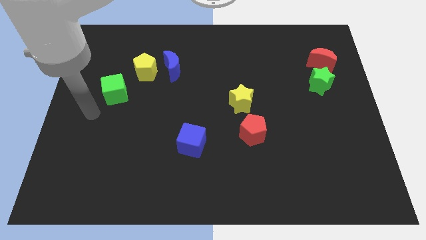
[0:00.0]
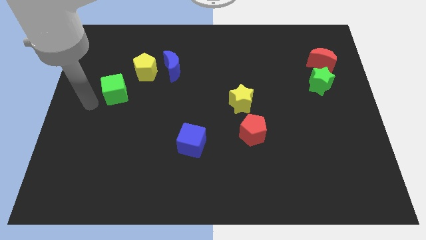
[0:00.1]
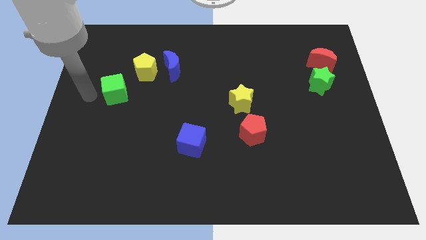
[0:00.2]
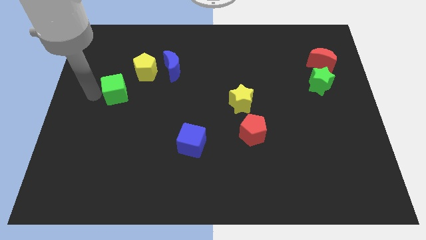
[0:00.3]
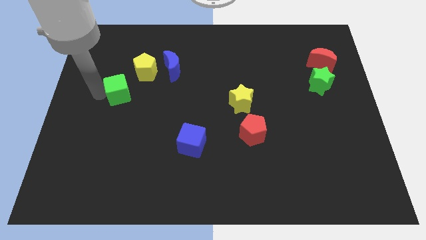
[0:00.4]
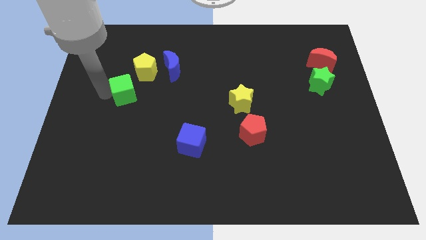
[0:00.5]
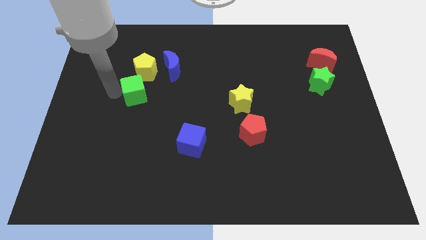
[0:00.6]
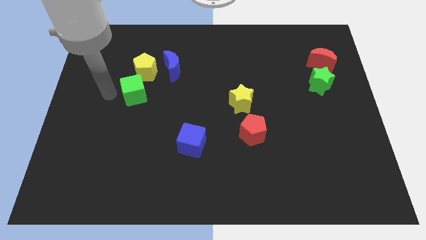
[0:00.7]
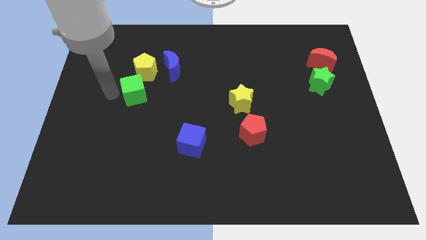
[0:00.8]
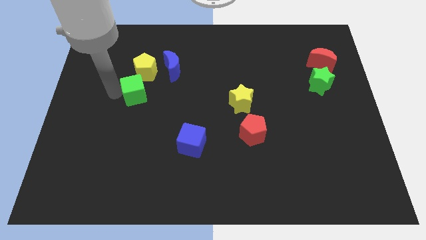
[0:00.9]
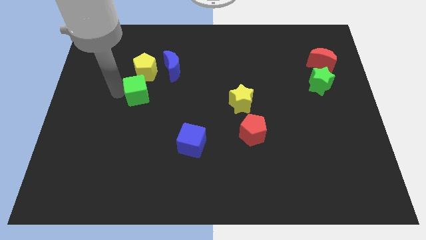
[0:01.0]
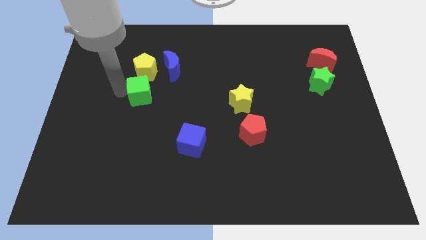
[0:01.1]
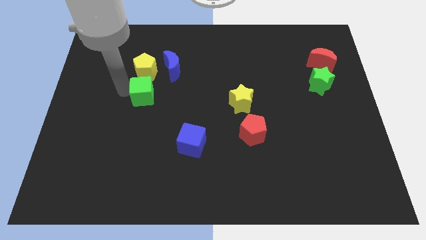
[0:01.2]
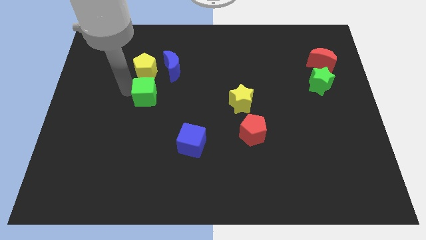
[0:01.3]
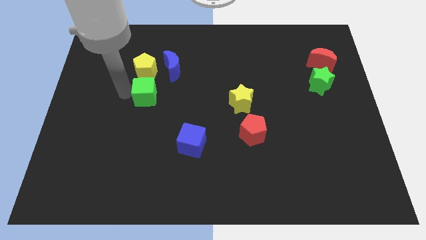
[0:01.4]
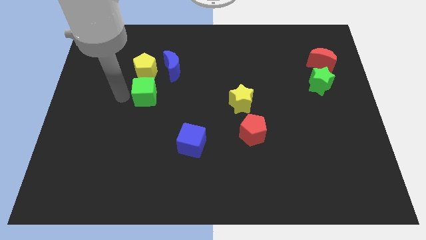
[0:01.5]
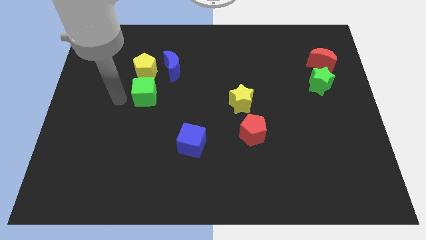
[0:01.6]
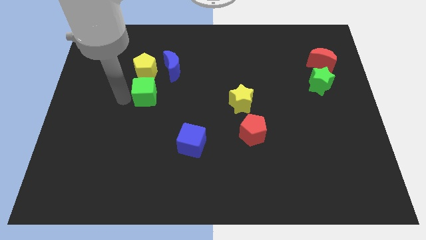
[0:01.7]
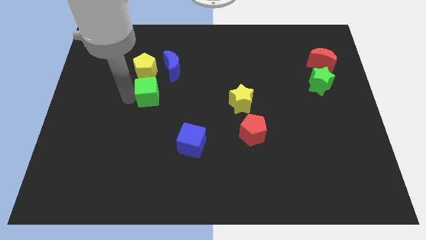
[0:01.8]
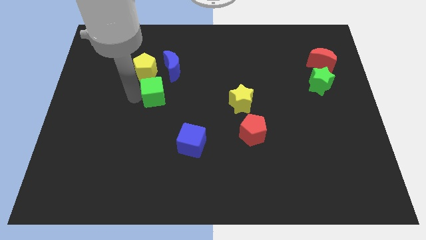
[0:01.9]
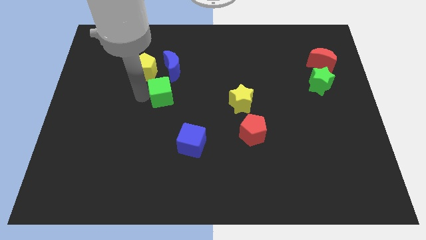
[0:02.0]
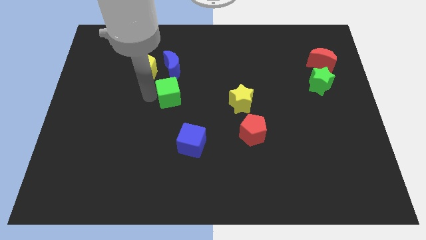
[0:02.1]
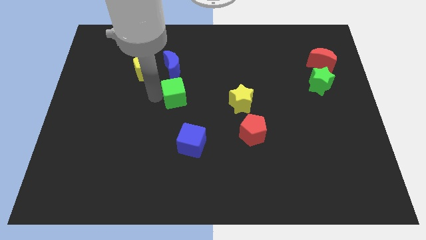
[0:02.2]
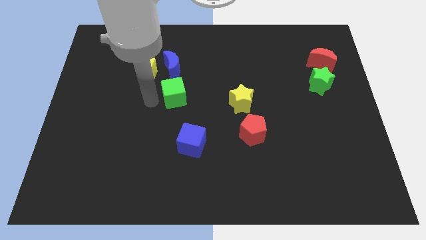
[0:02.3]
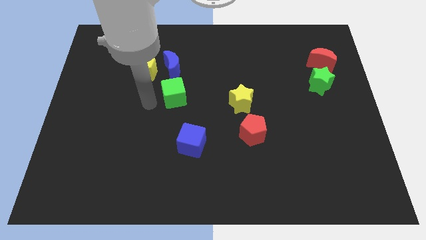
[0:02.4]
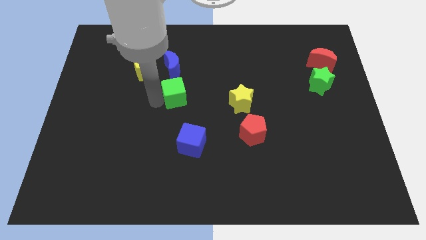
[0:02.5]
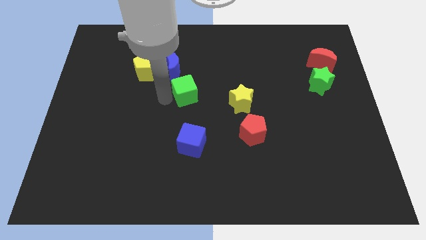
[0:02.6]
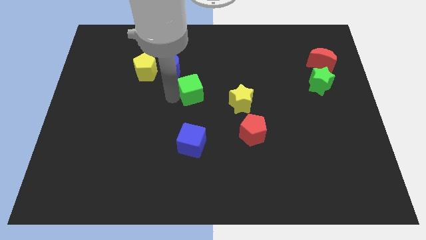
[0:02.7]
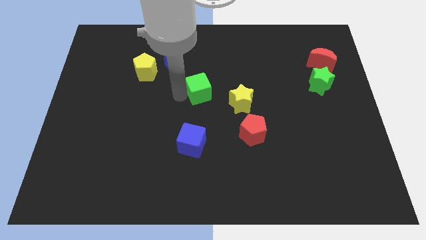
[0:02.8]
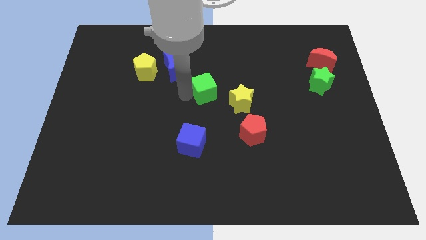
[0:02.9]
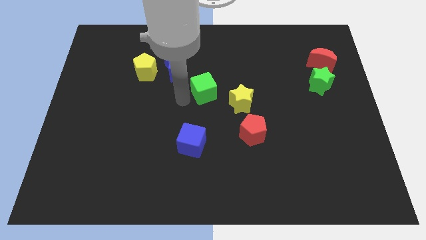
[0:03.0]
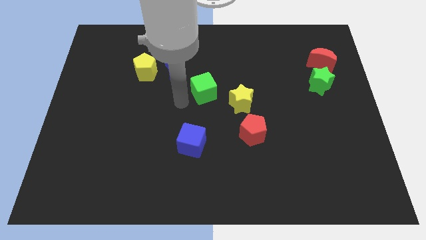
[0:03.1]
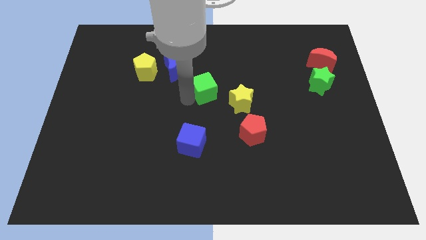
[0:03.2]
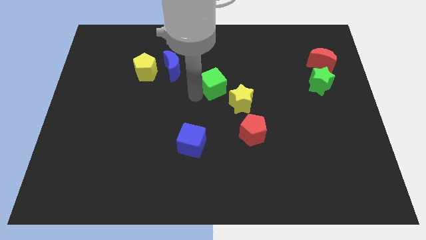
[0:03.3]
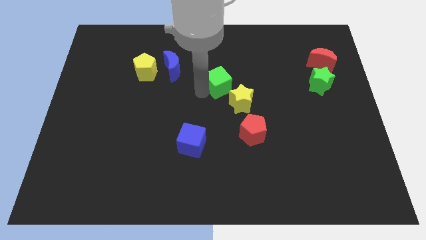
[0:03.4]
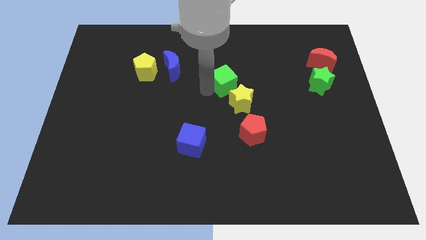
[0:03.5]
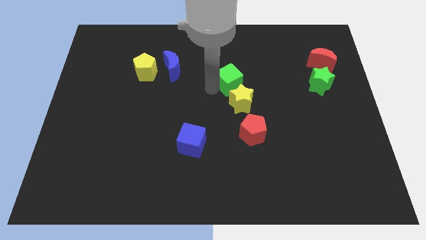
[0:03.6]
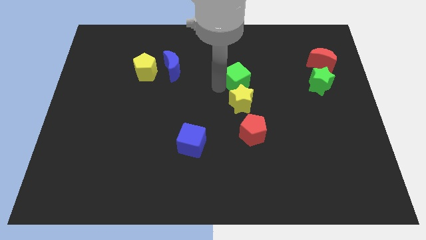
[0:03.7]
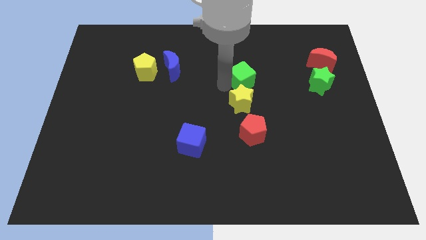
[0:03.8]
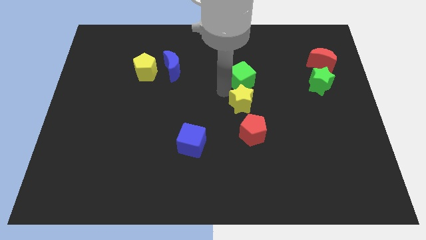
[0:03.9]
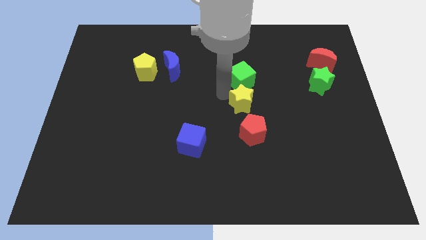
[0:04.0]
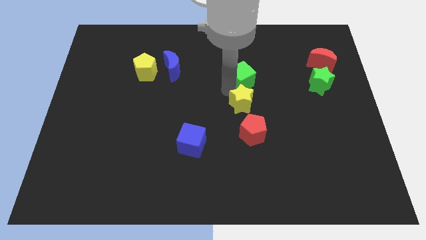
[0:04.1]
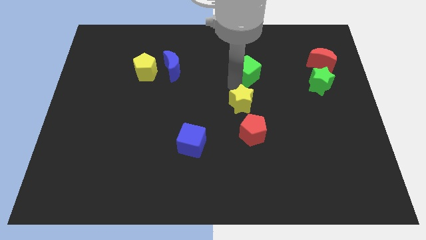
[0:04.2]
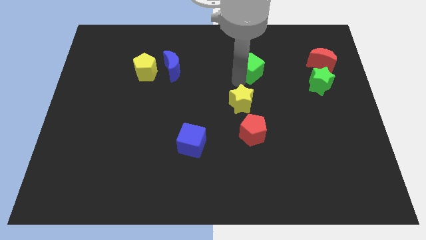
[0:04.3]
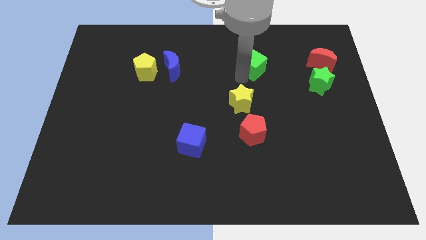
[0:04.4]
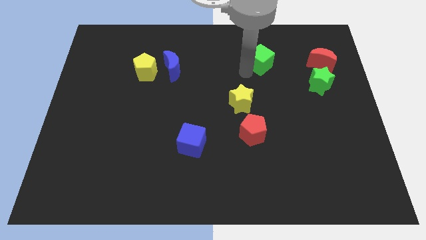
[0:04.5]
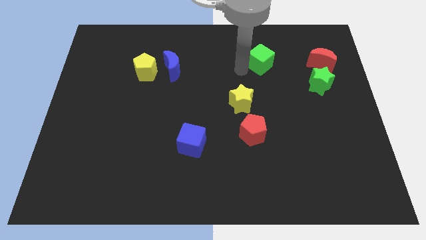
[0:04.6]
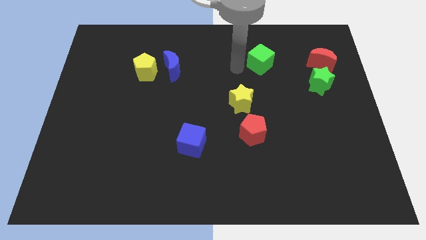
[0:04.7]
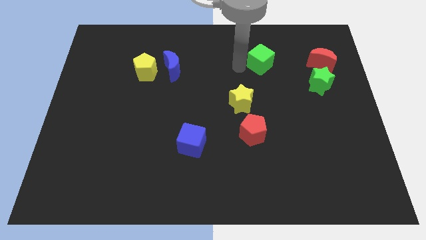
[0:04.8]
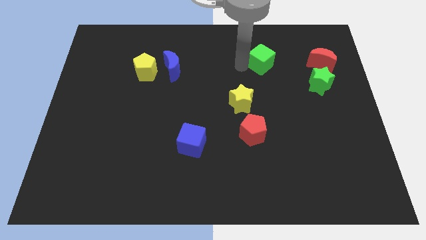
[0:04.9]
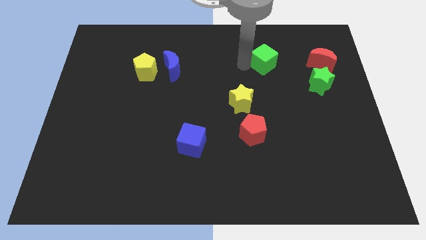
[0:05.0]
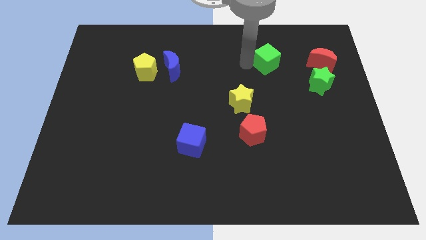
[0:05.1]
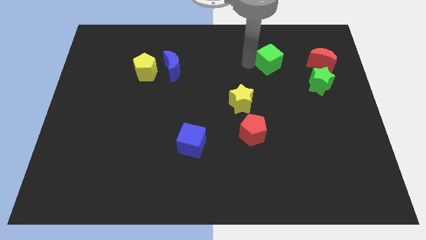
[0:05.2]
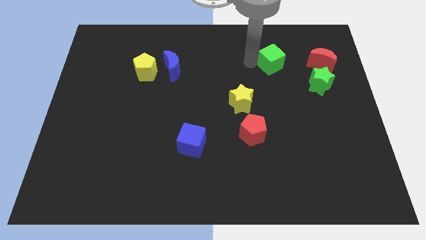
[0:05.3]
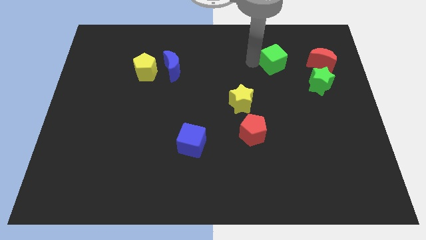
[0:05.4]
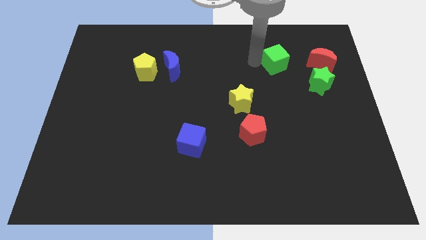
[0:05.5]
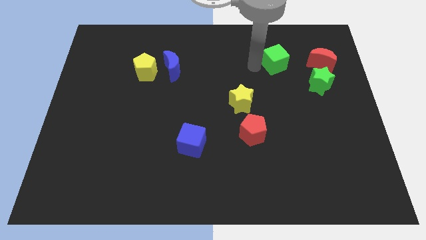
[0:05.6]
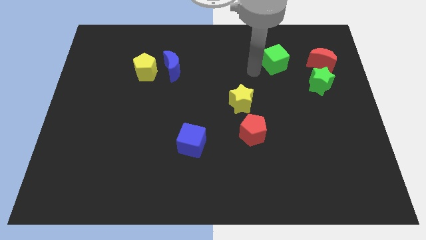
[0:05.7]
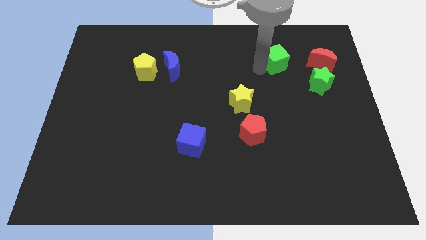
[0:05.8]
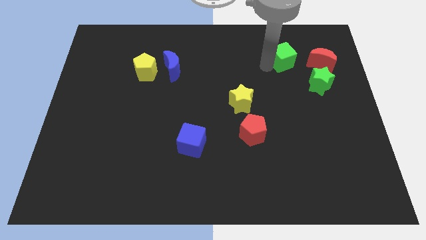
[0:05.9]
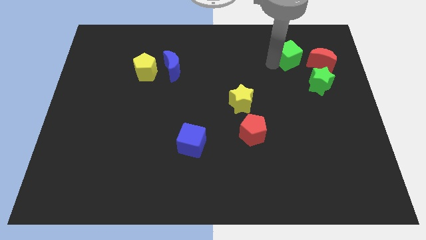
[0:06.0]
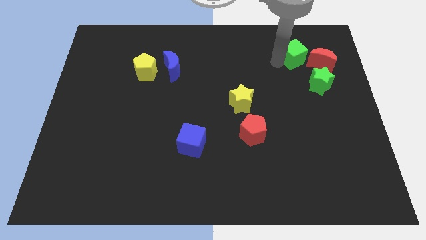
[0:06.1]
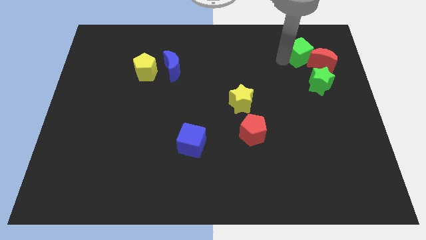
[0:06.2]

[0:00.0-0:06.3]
move the green cube to the top of the green star

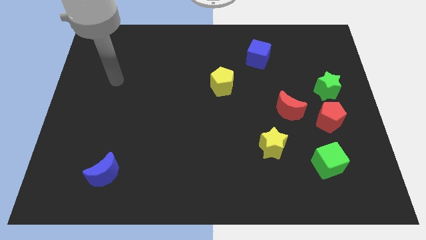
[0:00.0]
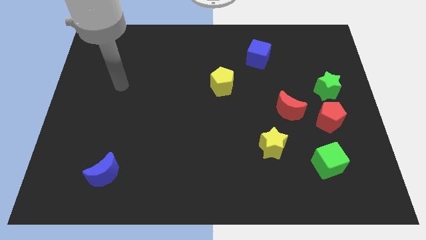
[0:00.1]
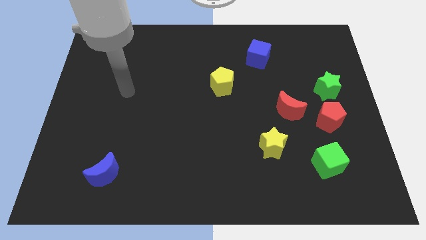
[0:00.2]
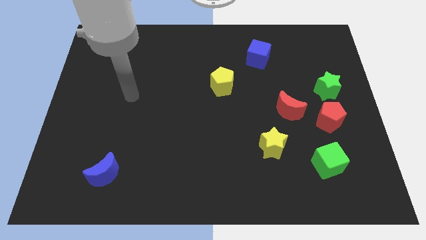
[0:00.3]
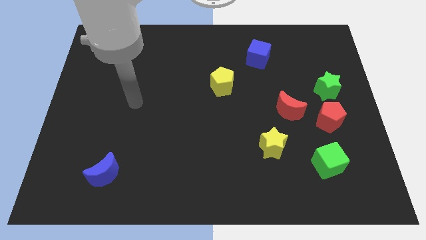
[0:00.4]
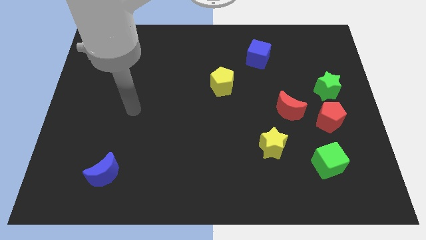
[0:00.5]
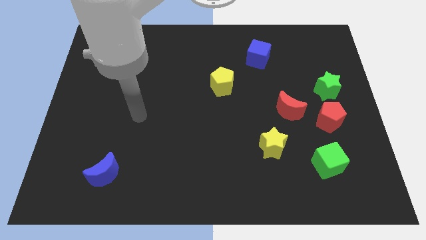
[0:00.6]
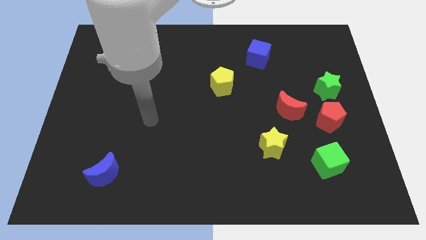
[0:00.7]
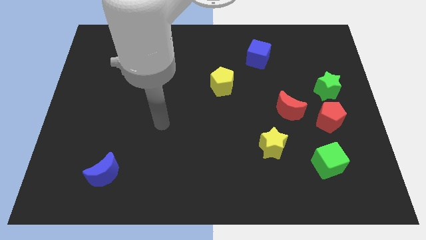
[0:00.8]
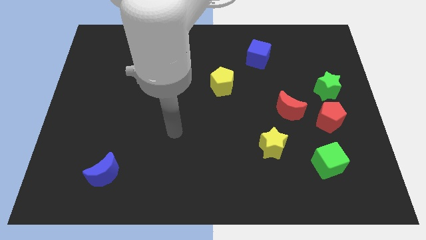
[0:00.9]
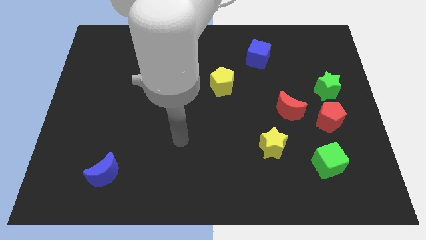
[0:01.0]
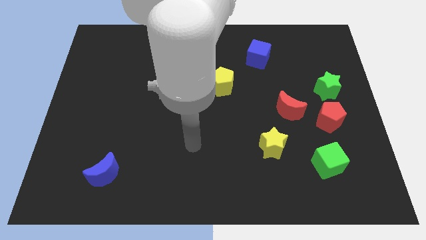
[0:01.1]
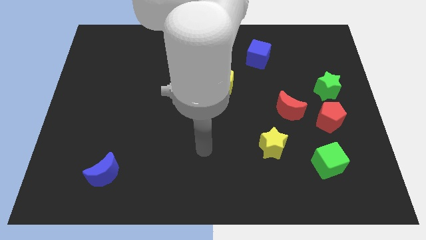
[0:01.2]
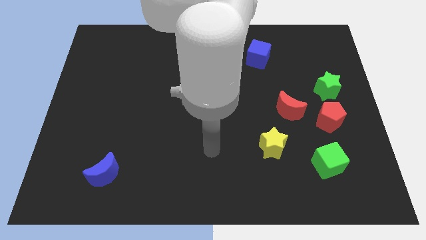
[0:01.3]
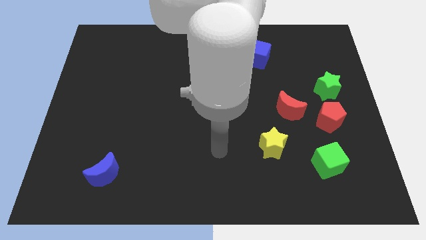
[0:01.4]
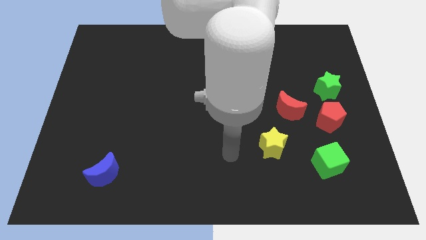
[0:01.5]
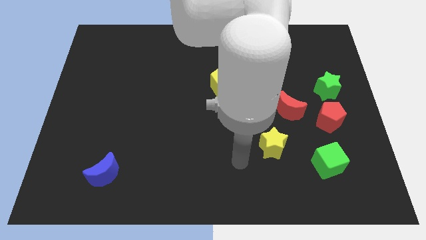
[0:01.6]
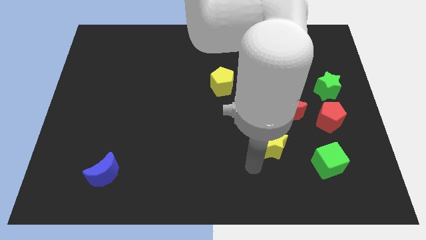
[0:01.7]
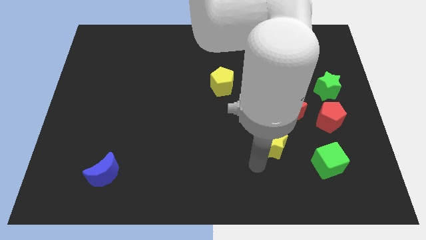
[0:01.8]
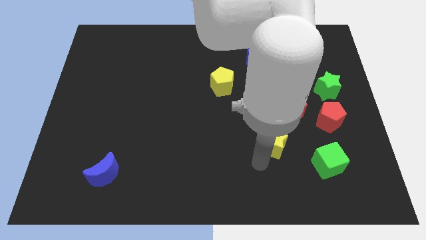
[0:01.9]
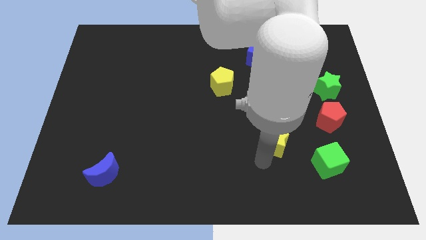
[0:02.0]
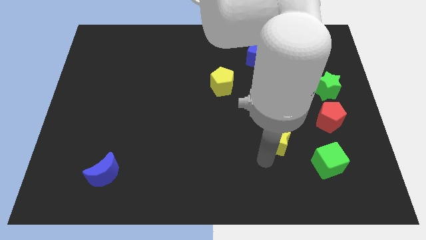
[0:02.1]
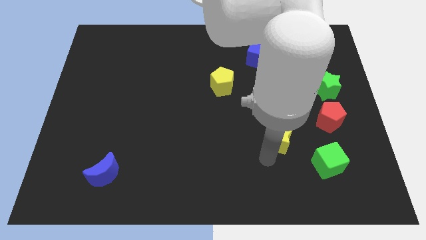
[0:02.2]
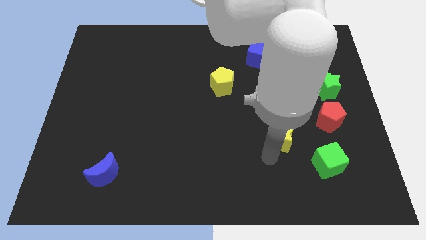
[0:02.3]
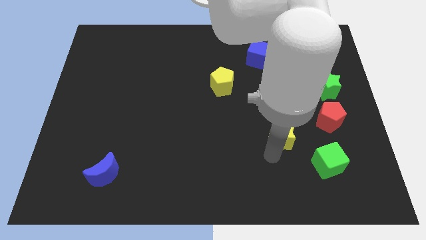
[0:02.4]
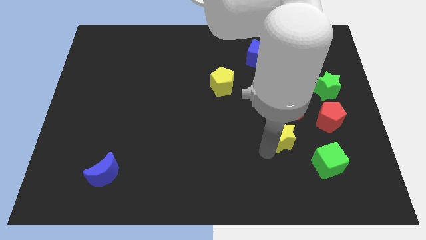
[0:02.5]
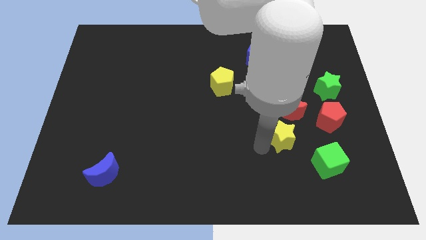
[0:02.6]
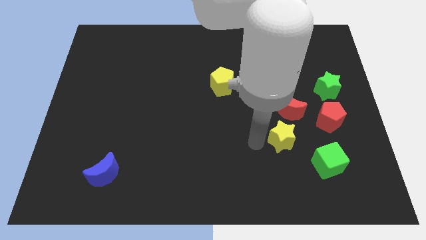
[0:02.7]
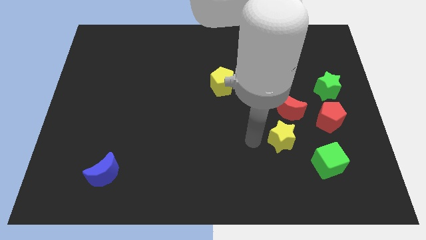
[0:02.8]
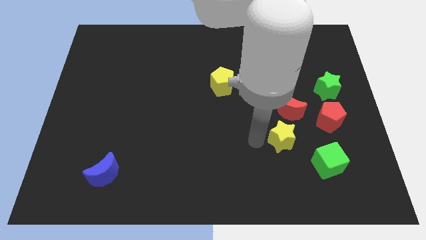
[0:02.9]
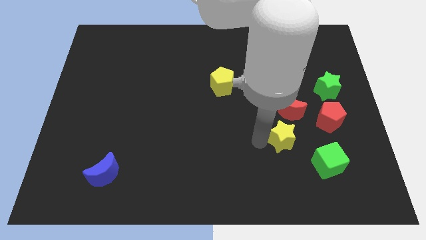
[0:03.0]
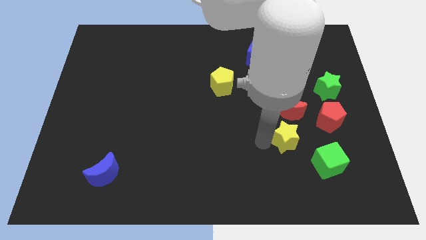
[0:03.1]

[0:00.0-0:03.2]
slide the yellow star diagonally down and to the left of the red pentagon
